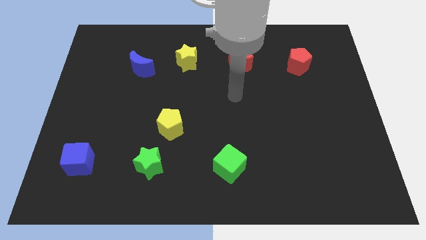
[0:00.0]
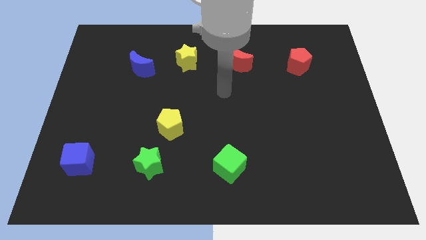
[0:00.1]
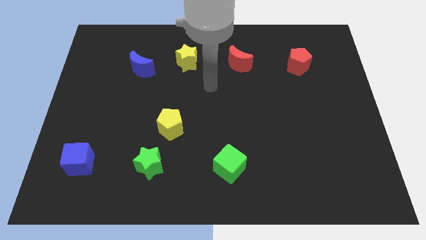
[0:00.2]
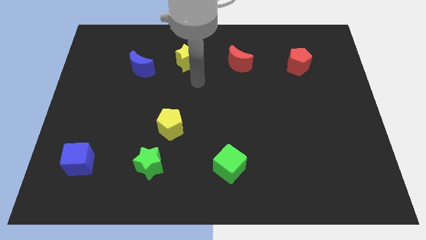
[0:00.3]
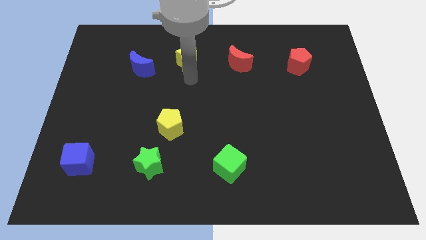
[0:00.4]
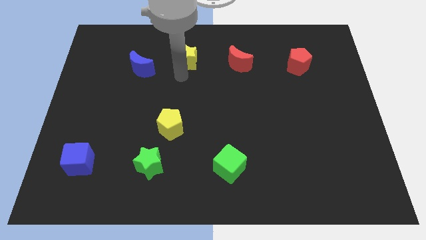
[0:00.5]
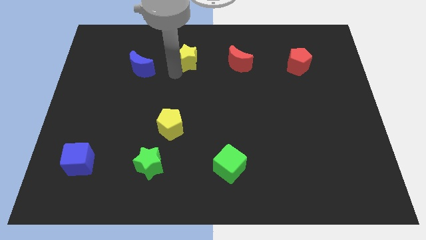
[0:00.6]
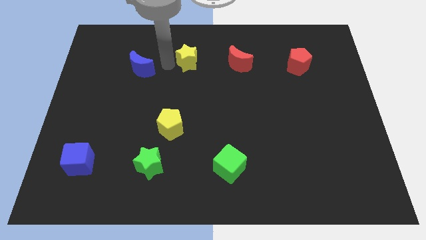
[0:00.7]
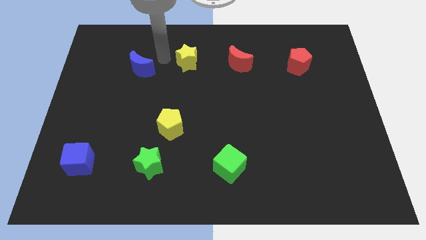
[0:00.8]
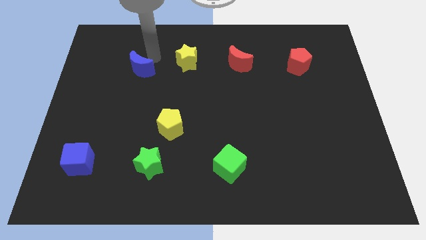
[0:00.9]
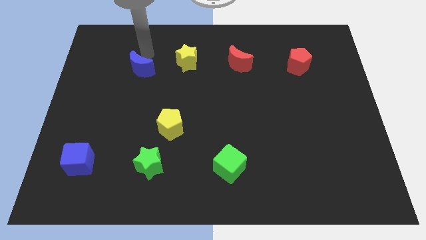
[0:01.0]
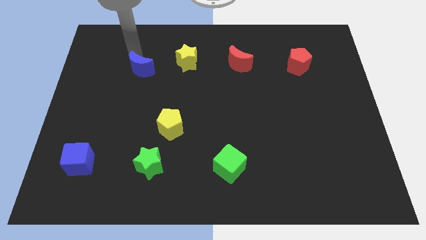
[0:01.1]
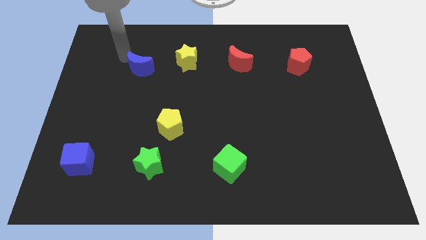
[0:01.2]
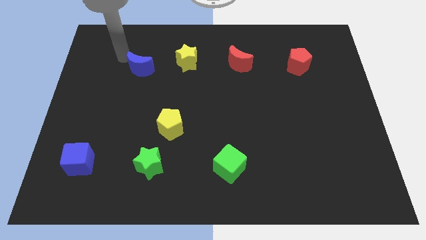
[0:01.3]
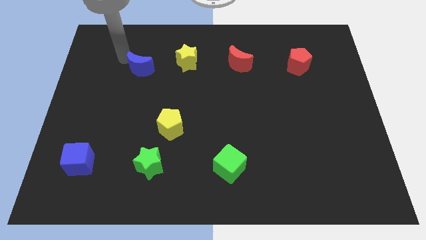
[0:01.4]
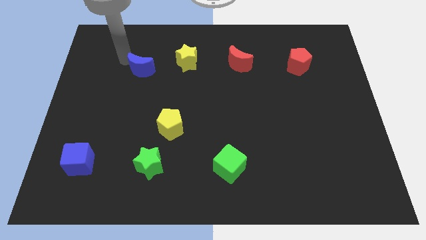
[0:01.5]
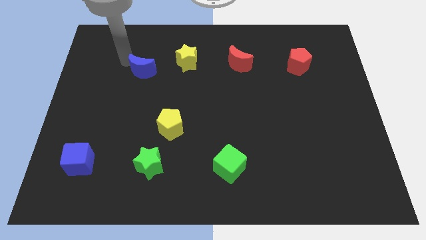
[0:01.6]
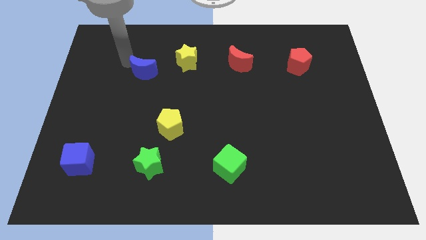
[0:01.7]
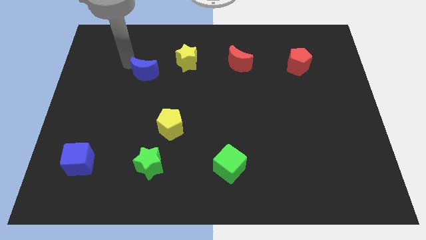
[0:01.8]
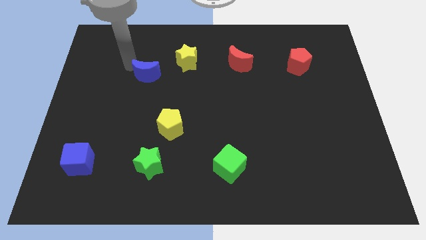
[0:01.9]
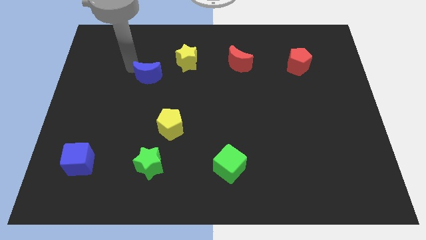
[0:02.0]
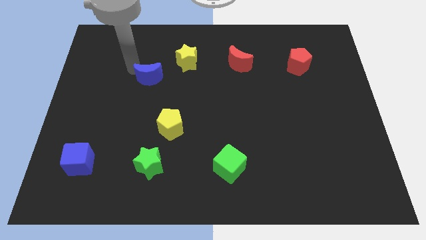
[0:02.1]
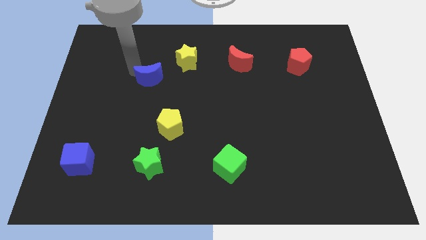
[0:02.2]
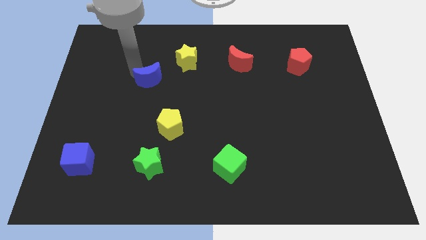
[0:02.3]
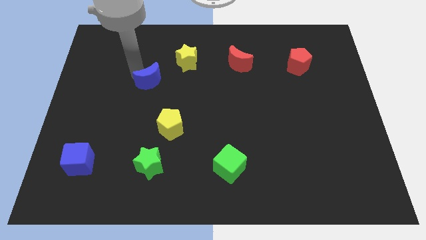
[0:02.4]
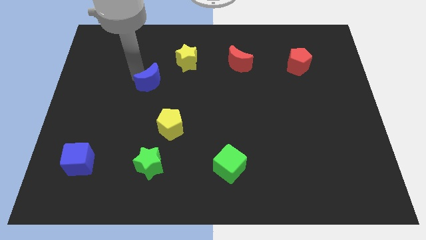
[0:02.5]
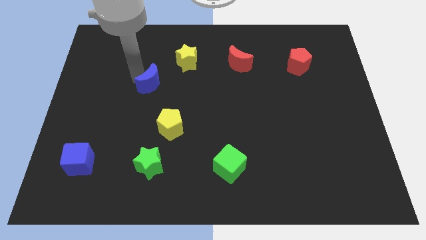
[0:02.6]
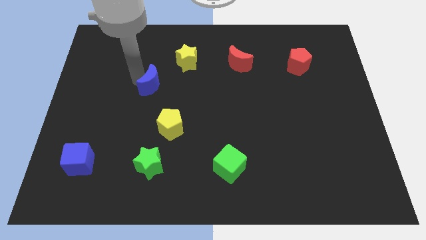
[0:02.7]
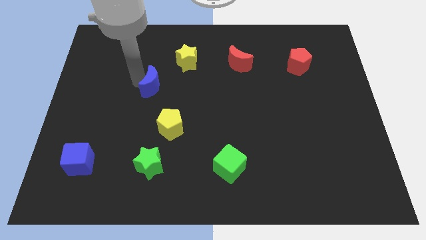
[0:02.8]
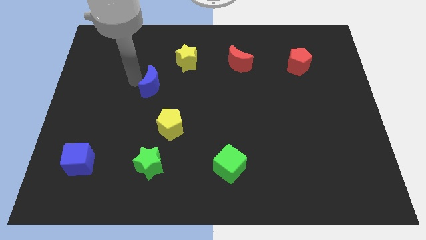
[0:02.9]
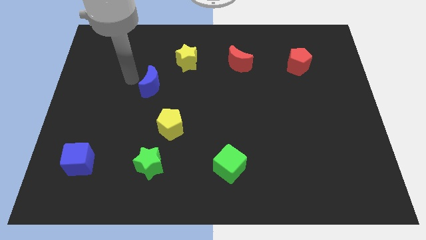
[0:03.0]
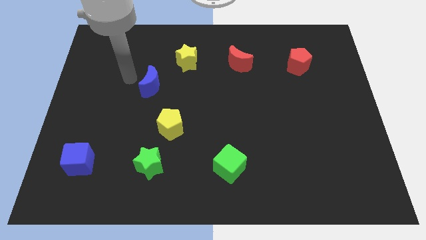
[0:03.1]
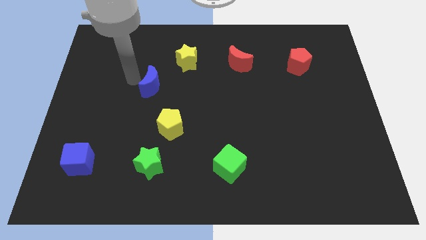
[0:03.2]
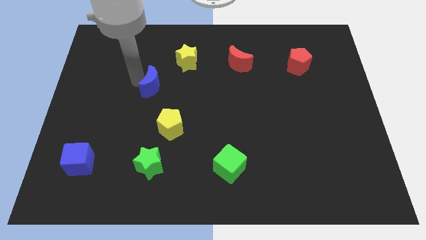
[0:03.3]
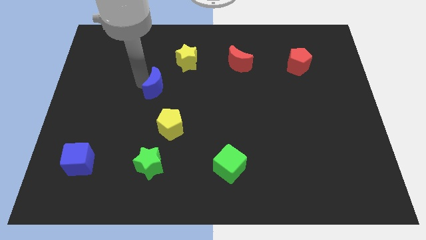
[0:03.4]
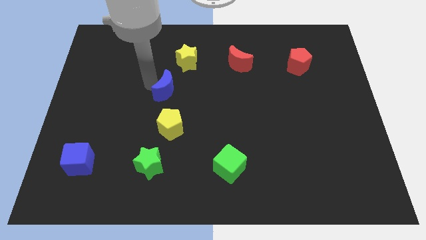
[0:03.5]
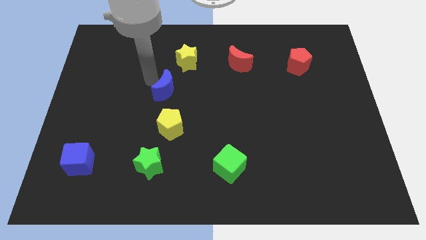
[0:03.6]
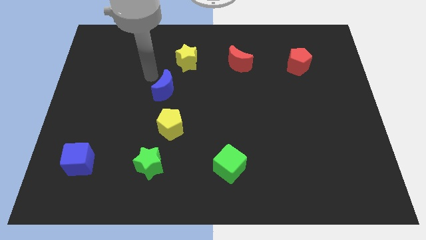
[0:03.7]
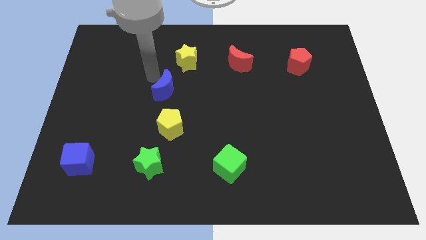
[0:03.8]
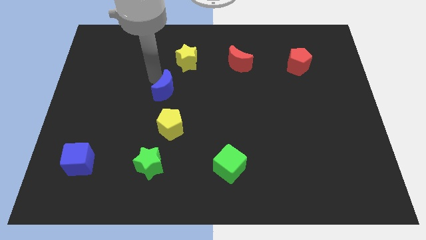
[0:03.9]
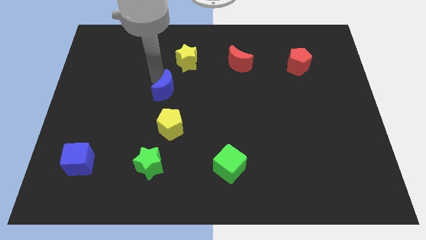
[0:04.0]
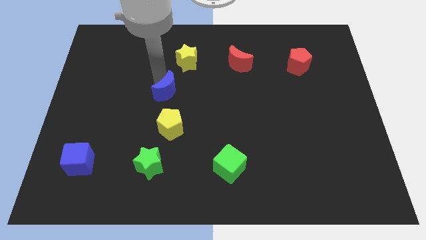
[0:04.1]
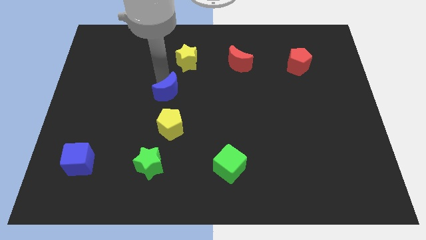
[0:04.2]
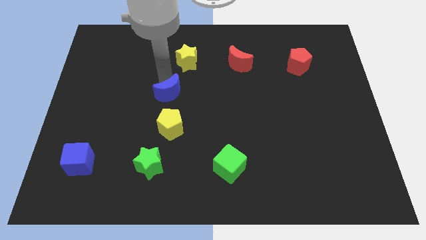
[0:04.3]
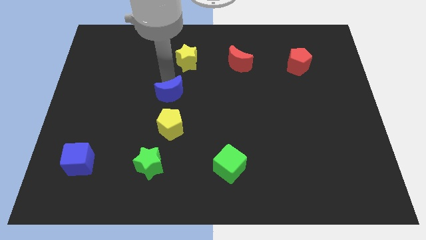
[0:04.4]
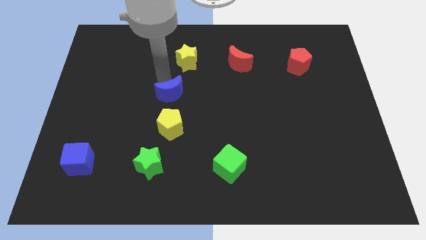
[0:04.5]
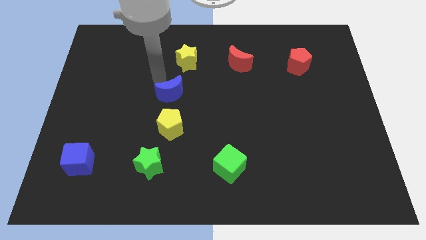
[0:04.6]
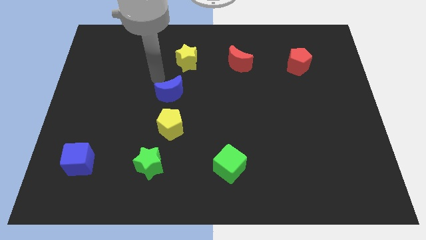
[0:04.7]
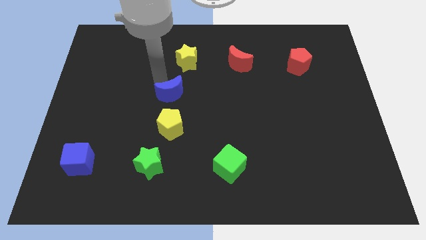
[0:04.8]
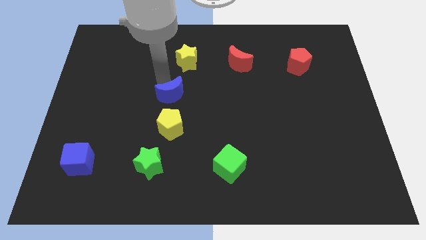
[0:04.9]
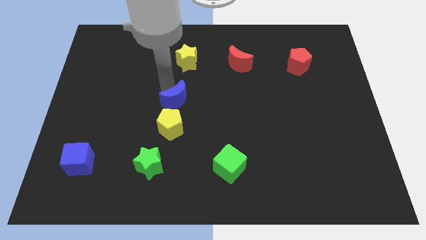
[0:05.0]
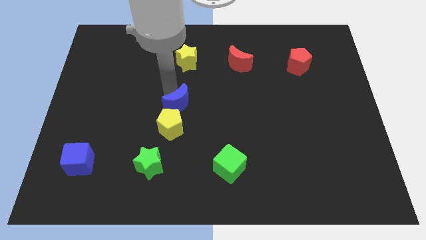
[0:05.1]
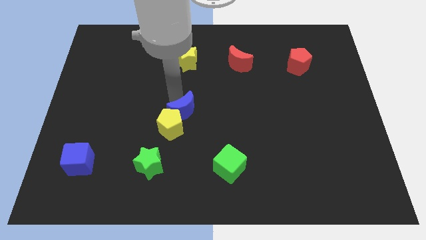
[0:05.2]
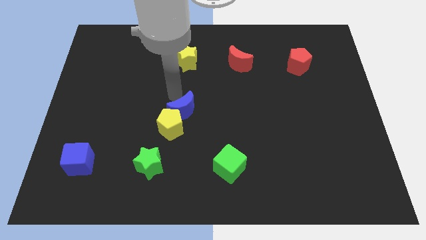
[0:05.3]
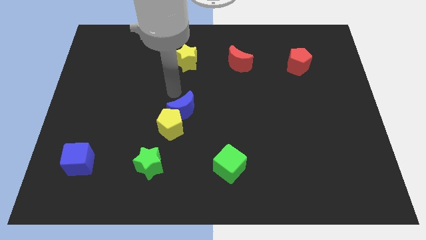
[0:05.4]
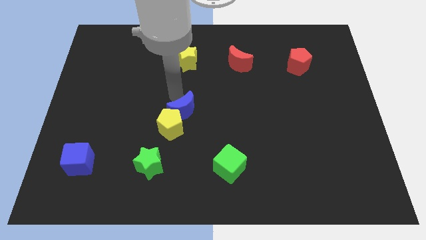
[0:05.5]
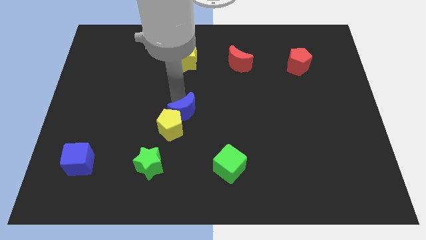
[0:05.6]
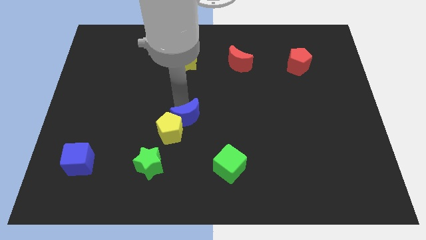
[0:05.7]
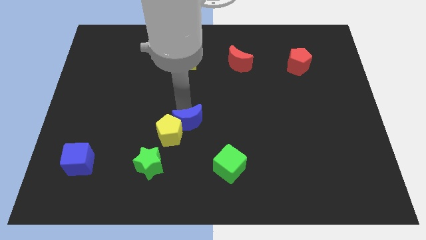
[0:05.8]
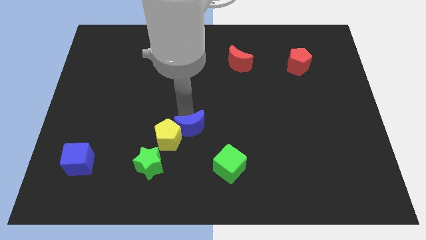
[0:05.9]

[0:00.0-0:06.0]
slide the blue moon diagonally up and to the left of the green cube

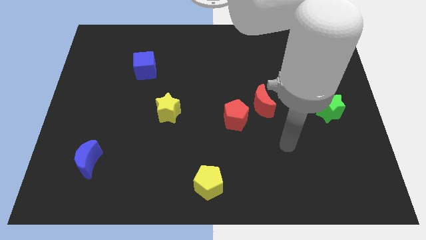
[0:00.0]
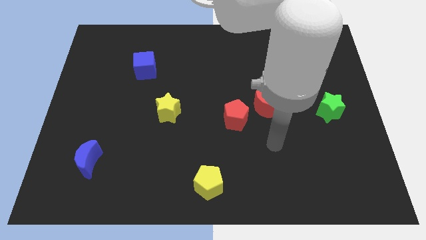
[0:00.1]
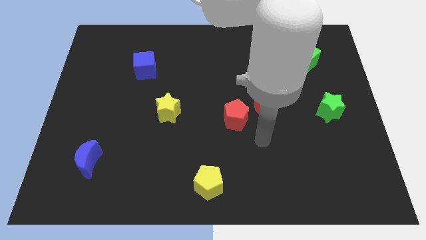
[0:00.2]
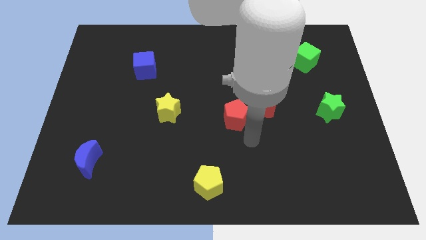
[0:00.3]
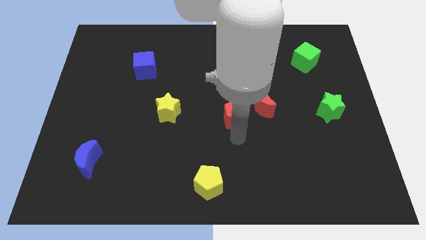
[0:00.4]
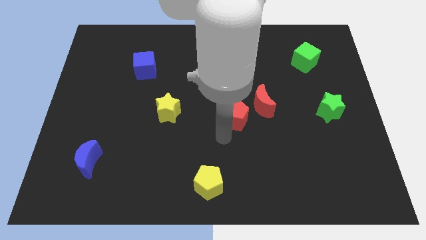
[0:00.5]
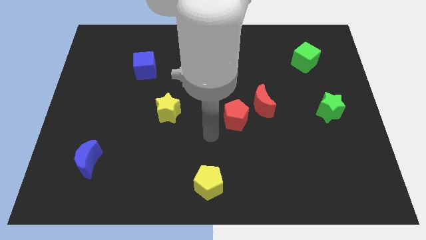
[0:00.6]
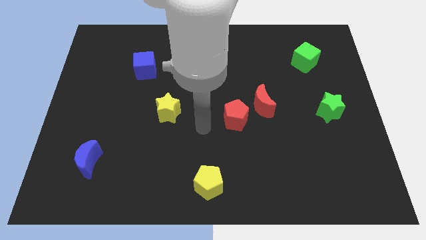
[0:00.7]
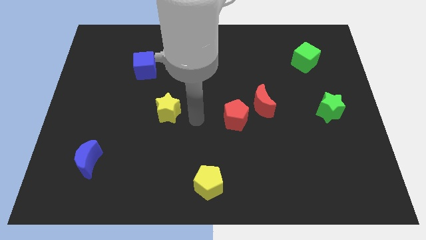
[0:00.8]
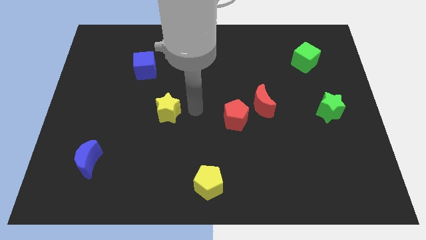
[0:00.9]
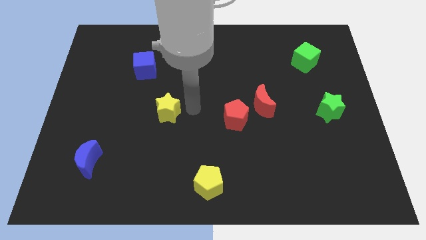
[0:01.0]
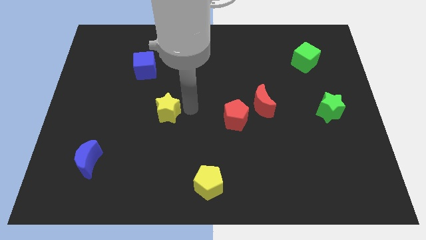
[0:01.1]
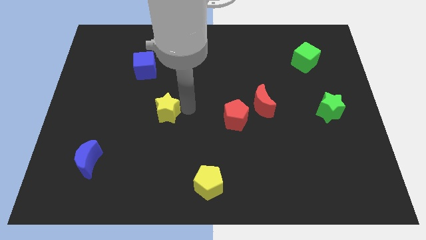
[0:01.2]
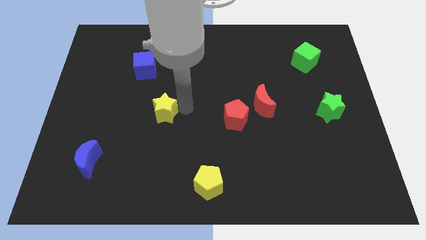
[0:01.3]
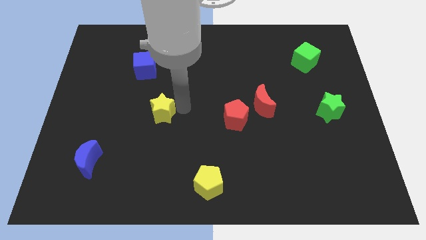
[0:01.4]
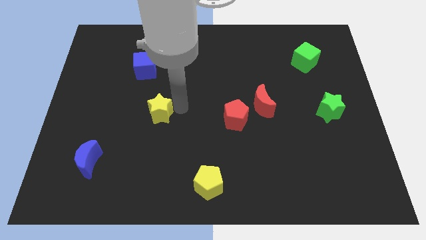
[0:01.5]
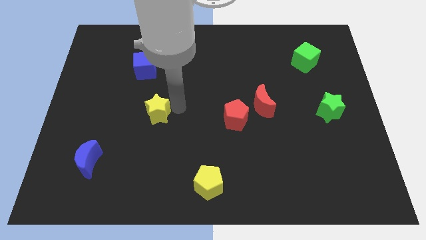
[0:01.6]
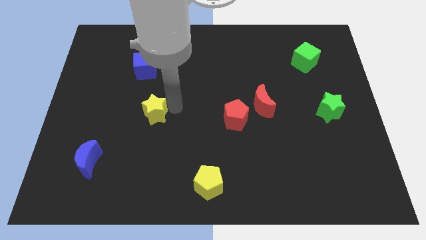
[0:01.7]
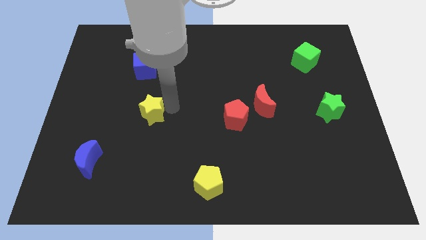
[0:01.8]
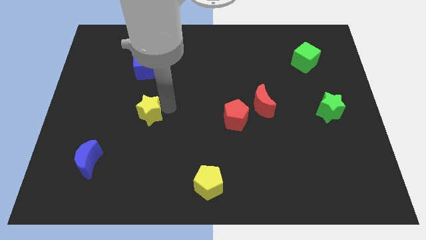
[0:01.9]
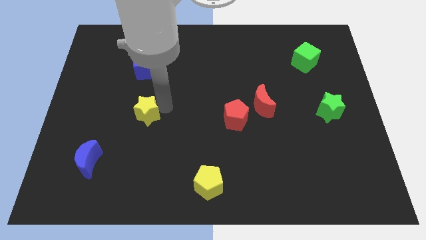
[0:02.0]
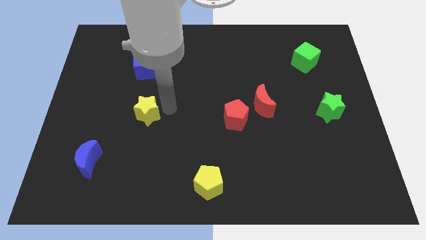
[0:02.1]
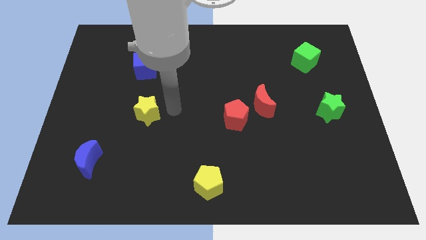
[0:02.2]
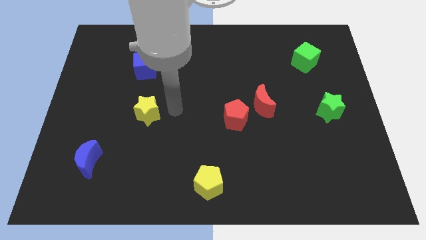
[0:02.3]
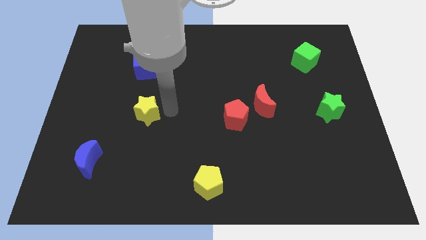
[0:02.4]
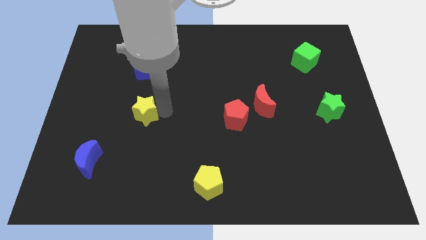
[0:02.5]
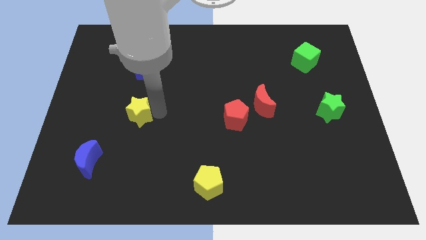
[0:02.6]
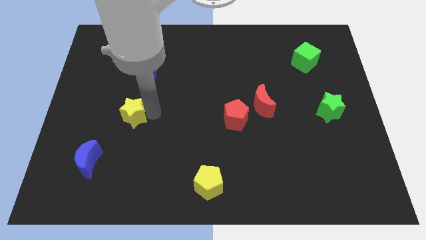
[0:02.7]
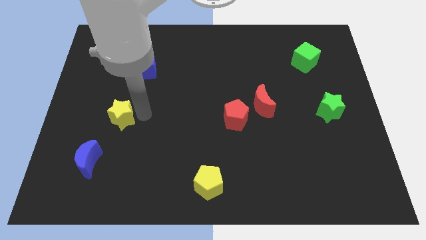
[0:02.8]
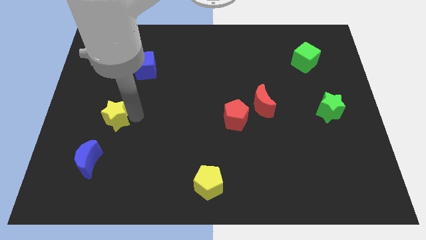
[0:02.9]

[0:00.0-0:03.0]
slide the yellow star to the top of the blue moon
